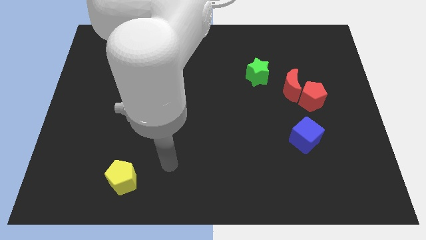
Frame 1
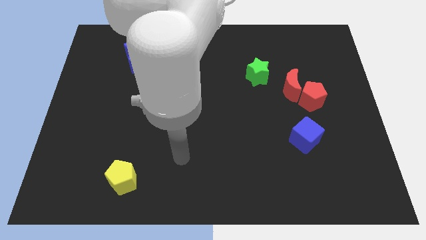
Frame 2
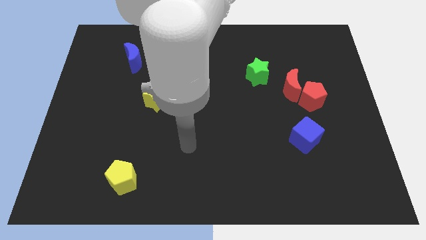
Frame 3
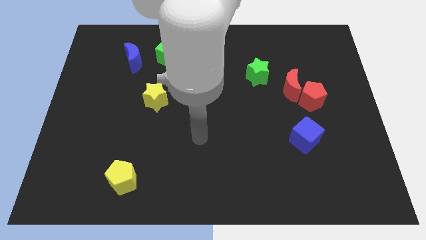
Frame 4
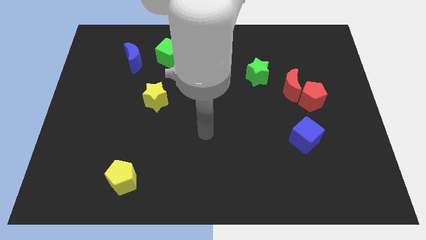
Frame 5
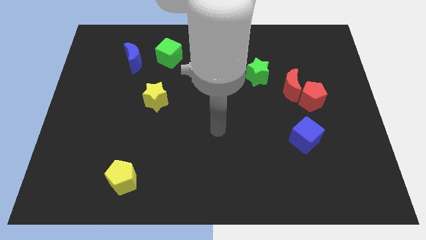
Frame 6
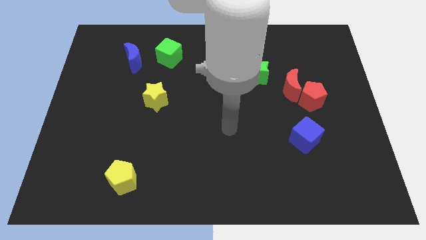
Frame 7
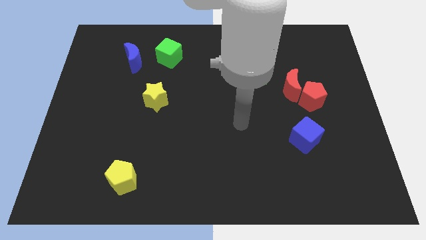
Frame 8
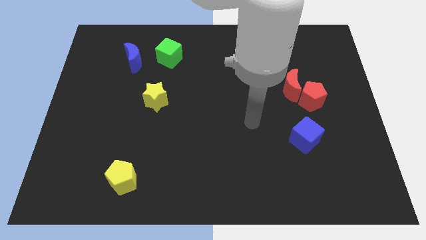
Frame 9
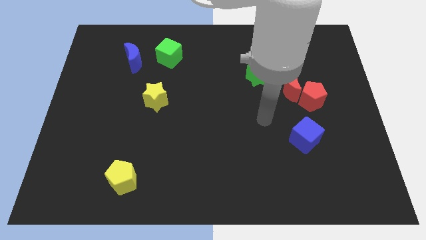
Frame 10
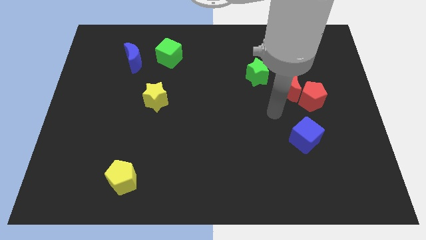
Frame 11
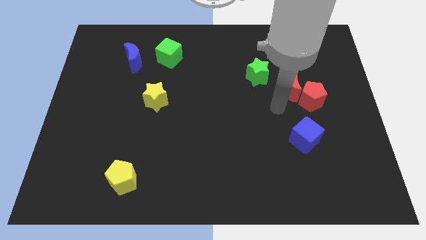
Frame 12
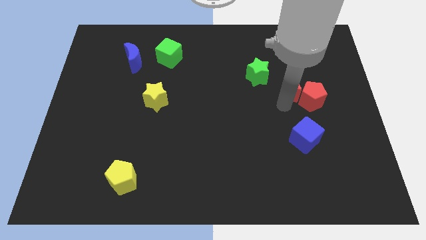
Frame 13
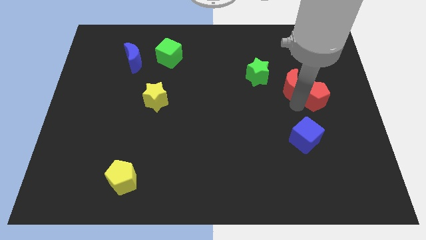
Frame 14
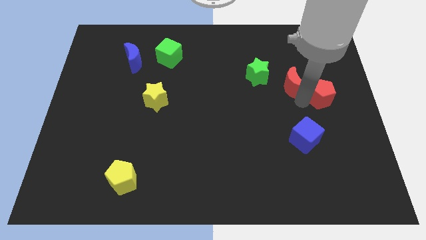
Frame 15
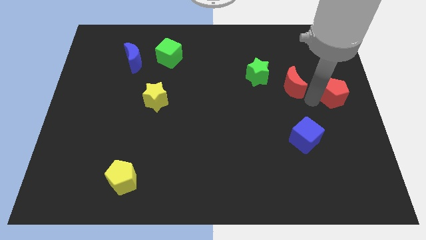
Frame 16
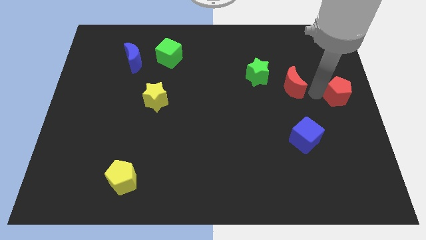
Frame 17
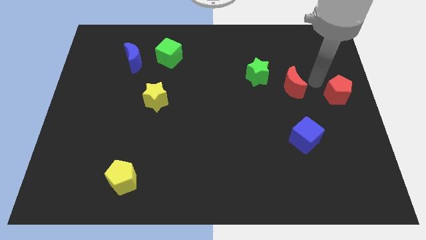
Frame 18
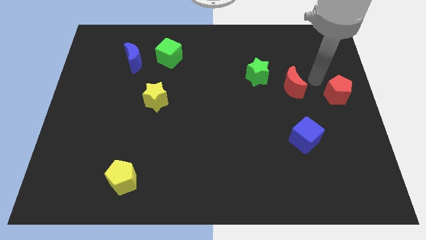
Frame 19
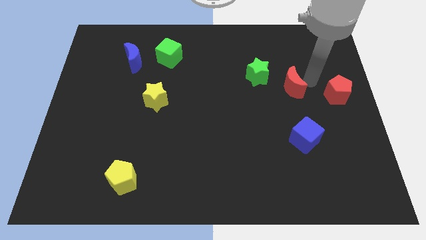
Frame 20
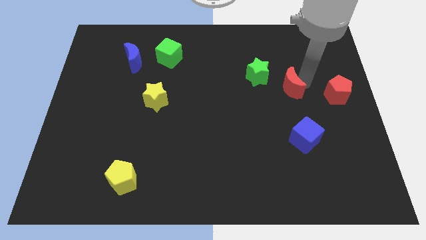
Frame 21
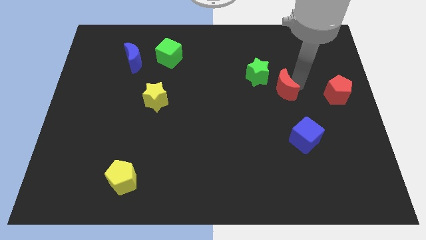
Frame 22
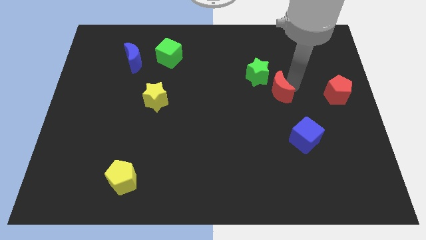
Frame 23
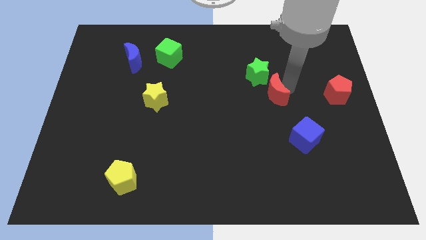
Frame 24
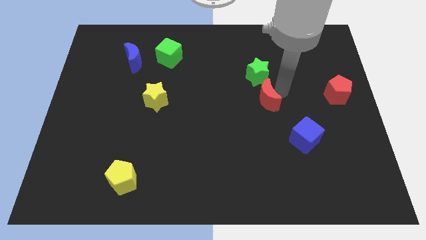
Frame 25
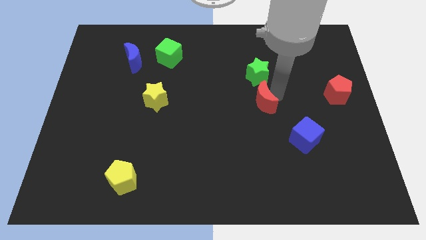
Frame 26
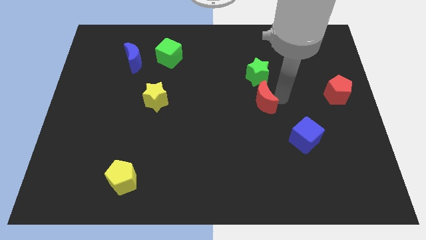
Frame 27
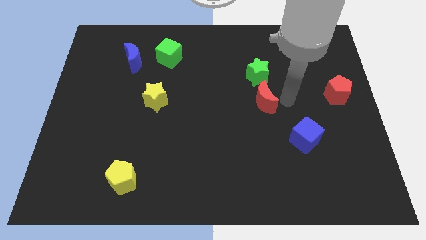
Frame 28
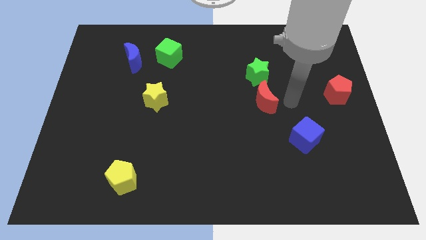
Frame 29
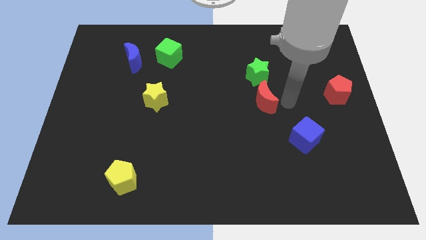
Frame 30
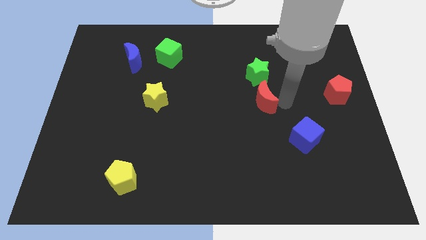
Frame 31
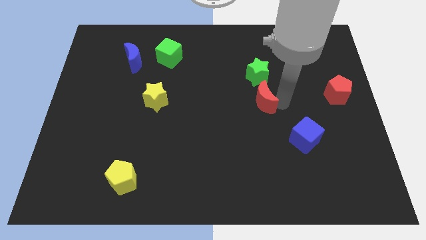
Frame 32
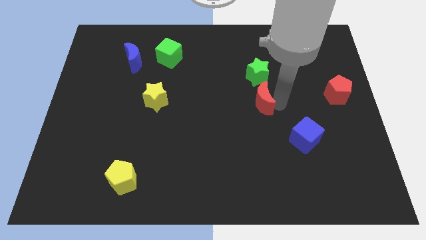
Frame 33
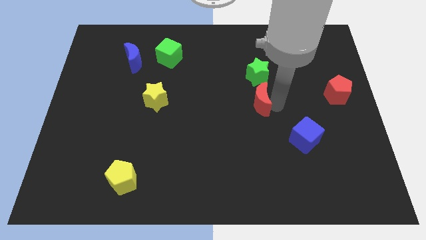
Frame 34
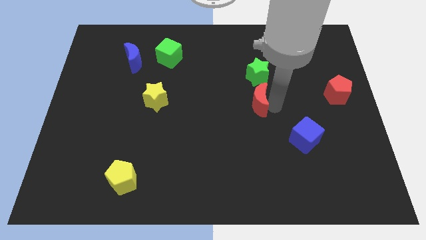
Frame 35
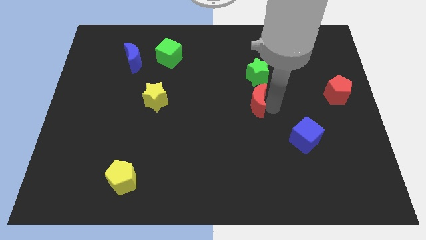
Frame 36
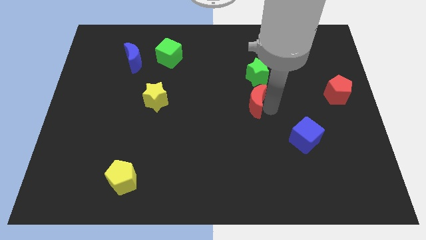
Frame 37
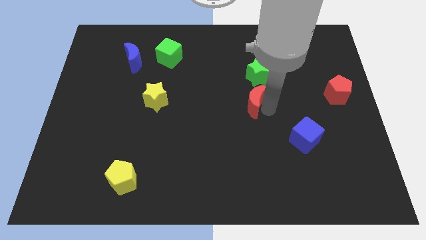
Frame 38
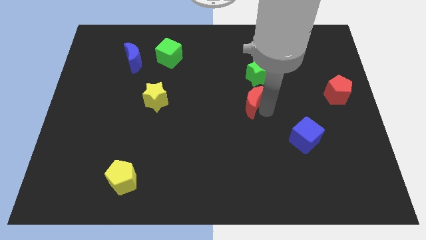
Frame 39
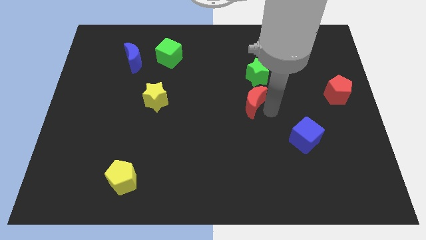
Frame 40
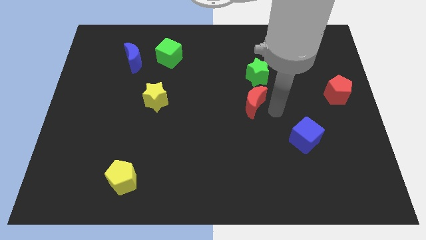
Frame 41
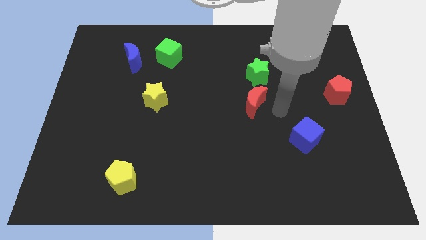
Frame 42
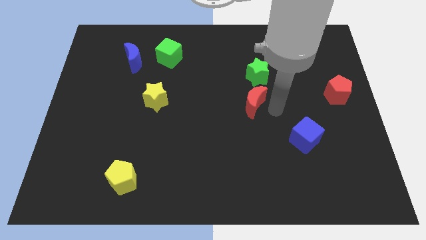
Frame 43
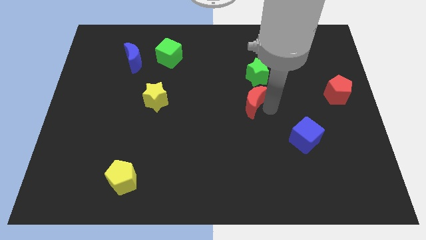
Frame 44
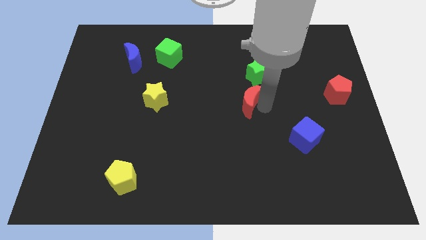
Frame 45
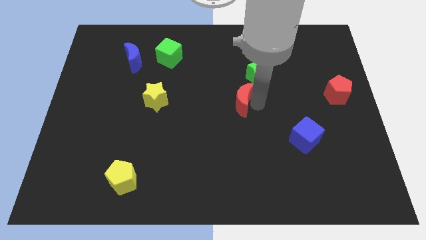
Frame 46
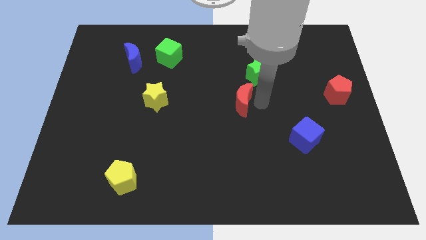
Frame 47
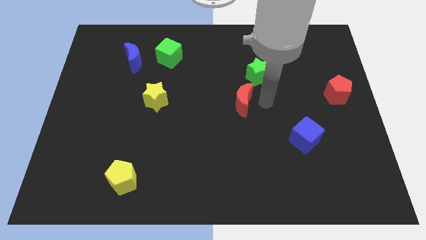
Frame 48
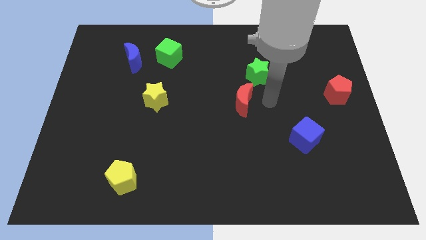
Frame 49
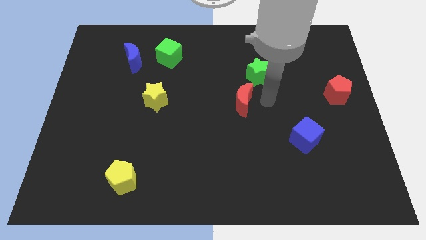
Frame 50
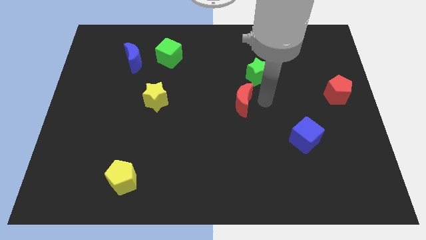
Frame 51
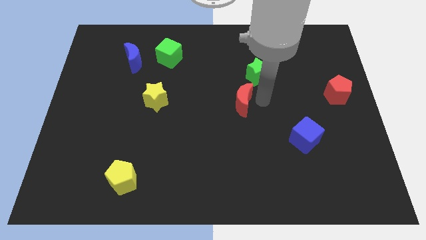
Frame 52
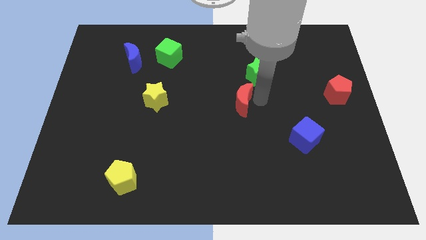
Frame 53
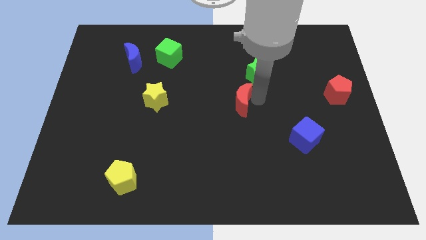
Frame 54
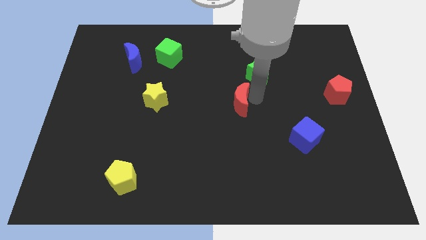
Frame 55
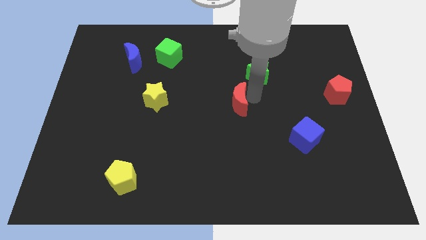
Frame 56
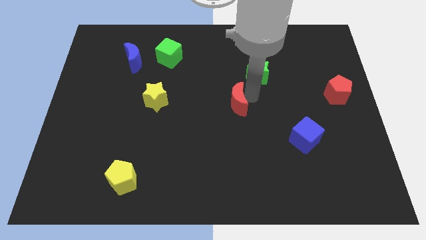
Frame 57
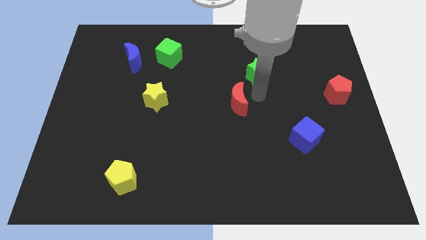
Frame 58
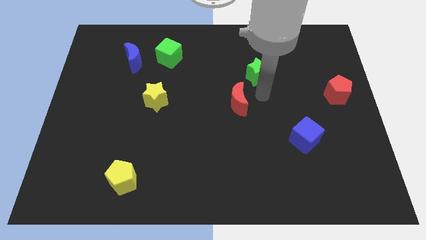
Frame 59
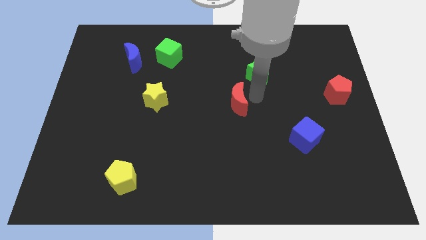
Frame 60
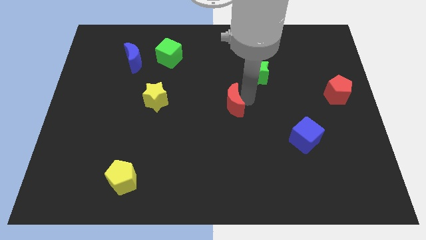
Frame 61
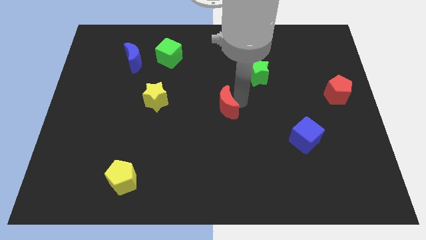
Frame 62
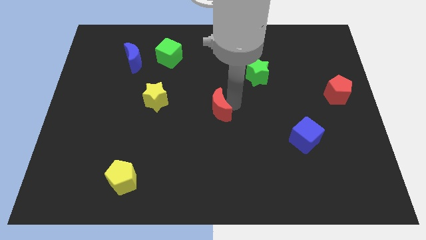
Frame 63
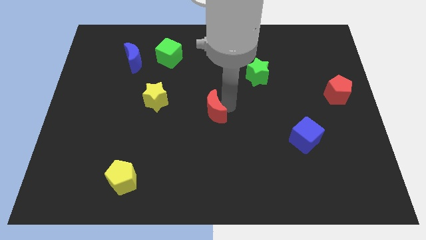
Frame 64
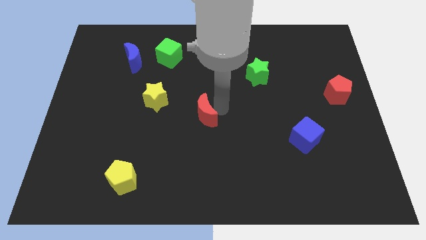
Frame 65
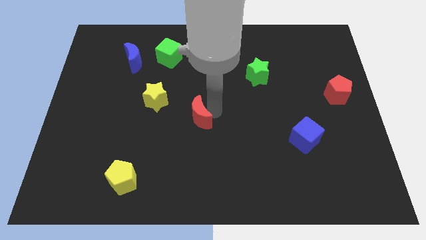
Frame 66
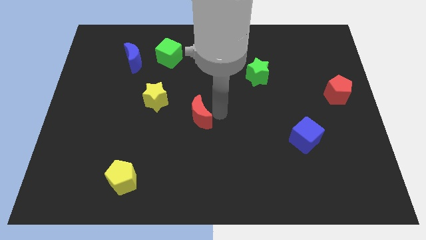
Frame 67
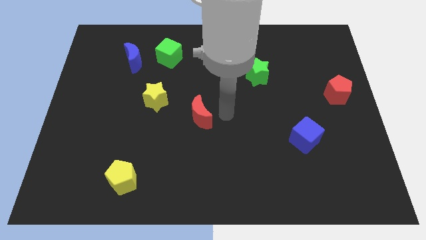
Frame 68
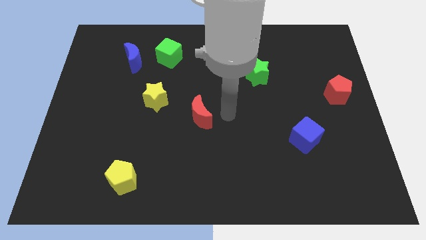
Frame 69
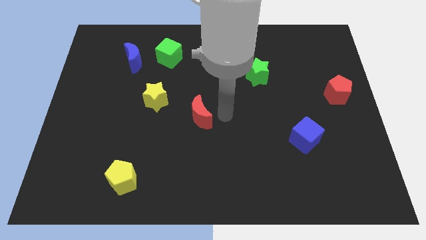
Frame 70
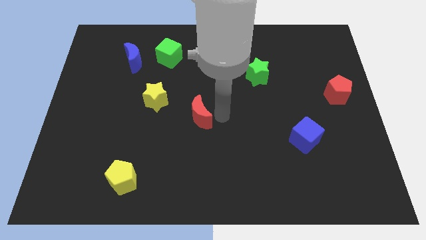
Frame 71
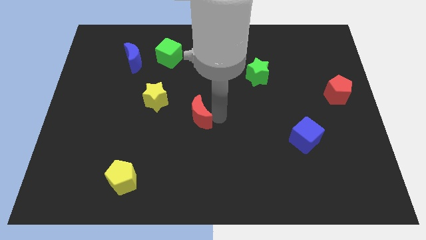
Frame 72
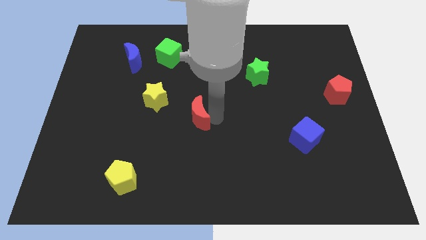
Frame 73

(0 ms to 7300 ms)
push the red moon to the bottom right of the yellow star
